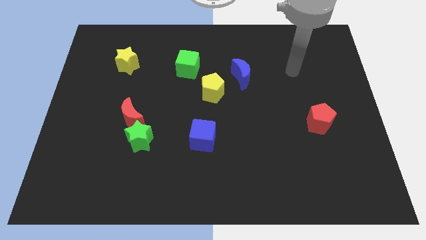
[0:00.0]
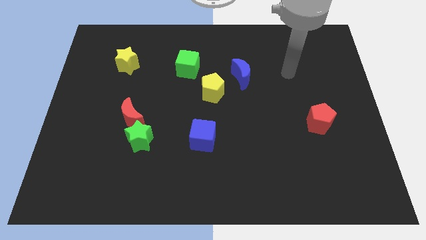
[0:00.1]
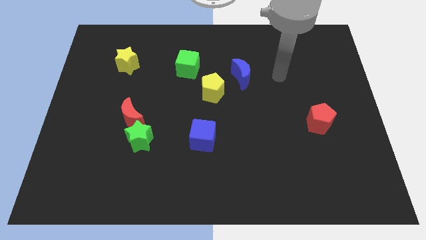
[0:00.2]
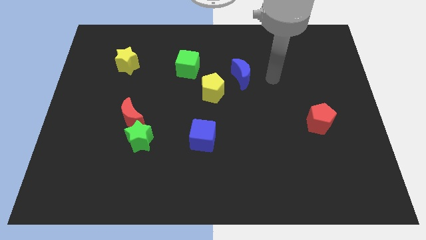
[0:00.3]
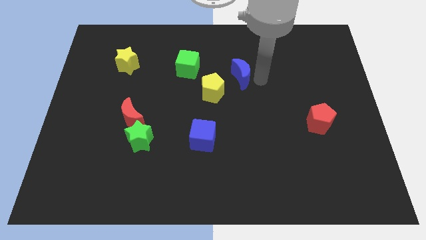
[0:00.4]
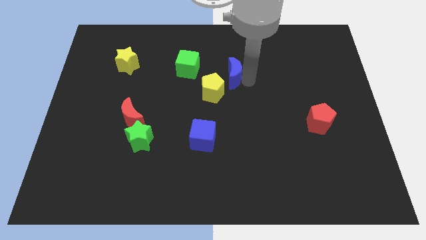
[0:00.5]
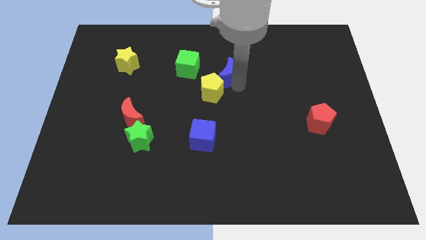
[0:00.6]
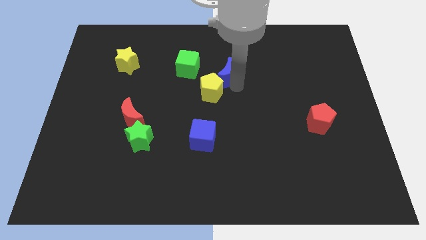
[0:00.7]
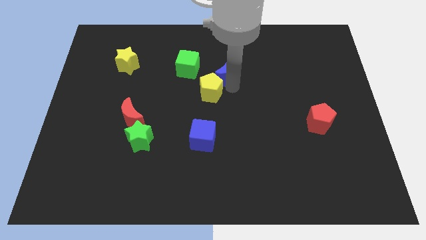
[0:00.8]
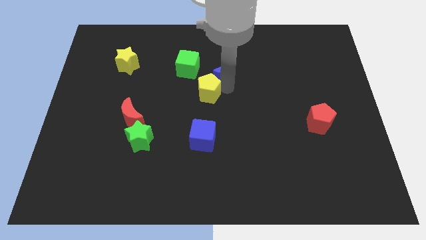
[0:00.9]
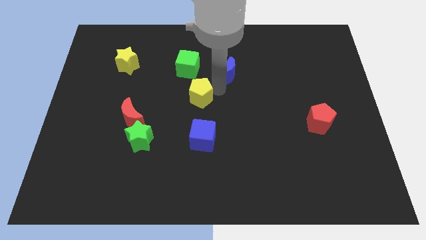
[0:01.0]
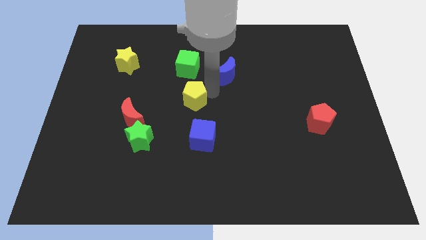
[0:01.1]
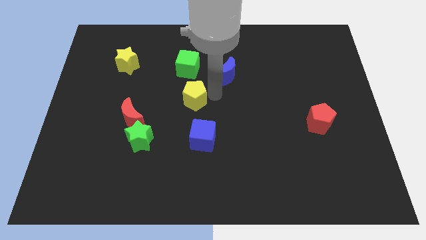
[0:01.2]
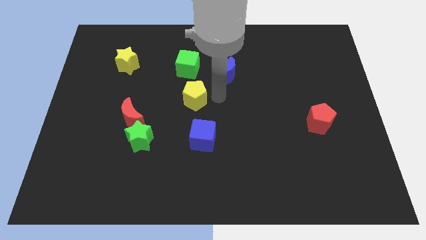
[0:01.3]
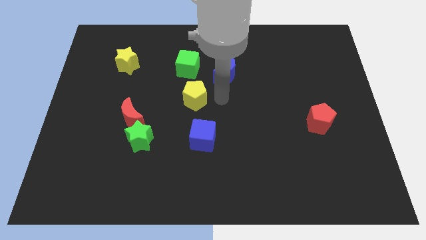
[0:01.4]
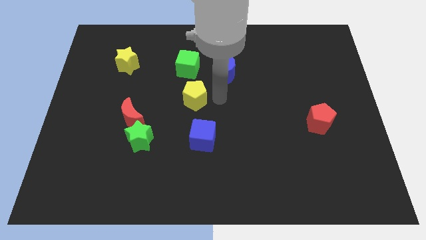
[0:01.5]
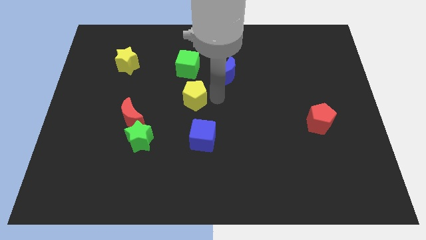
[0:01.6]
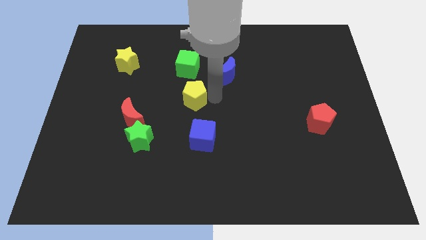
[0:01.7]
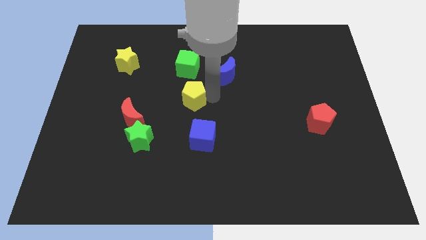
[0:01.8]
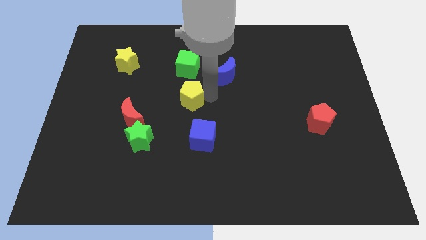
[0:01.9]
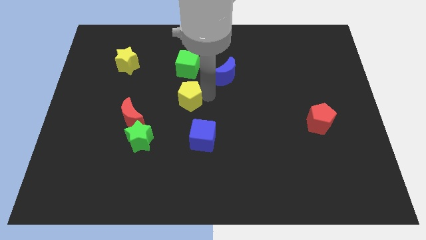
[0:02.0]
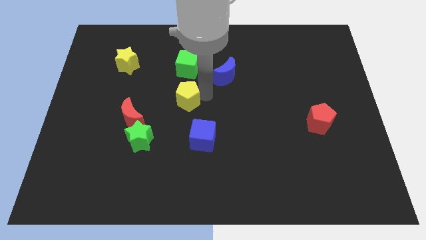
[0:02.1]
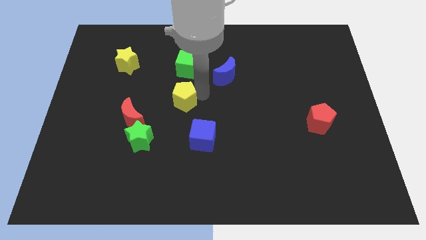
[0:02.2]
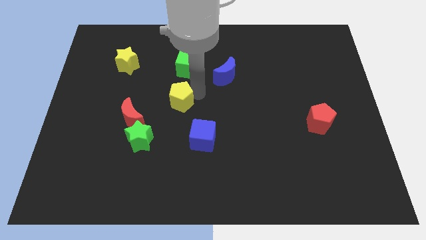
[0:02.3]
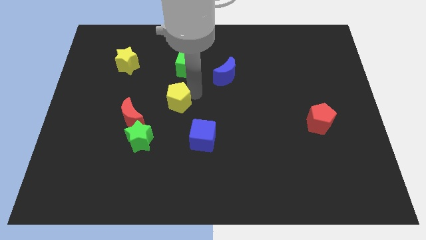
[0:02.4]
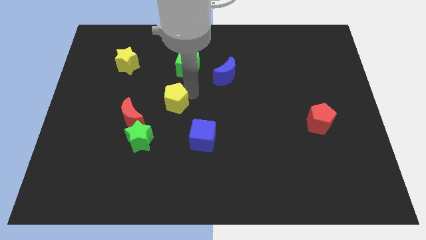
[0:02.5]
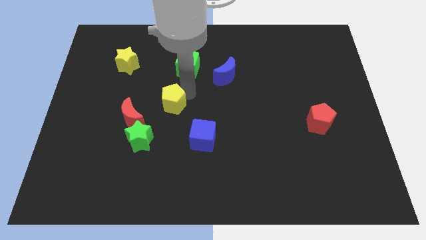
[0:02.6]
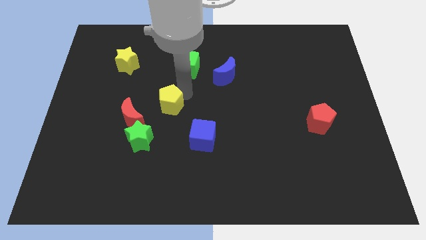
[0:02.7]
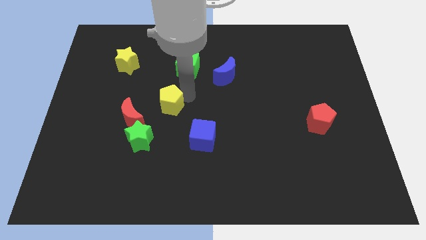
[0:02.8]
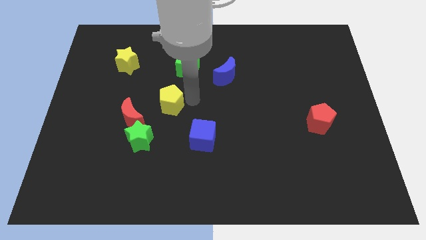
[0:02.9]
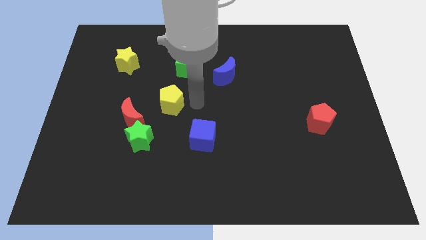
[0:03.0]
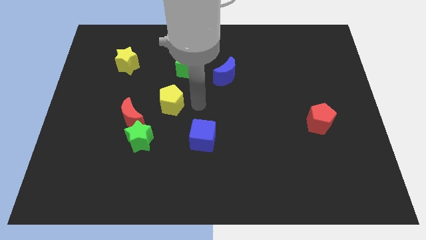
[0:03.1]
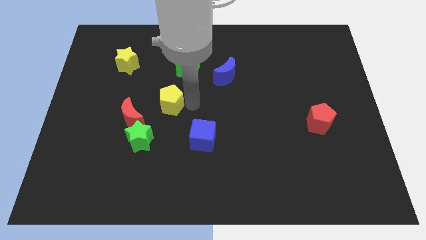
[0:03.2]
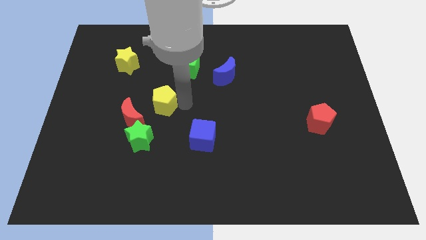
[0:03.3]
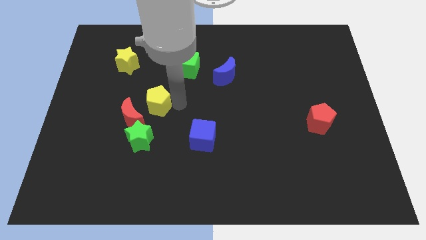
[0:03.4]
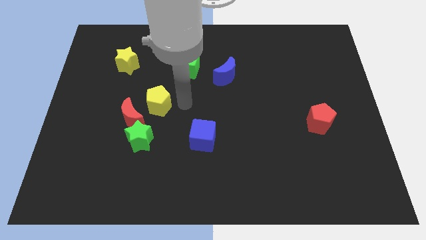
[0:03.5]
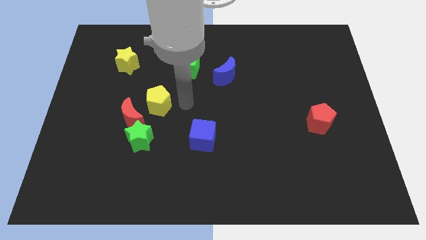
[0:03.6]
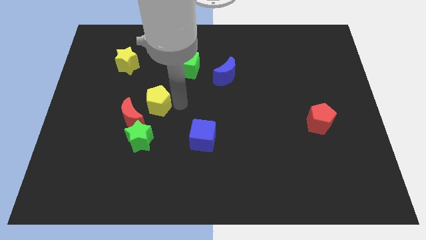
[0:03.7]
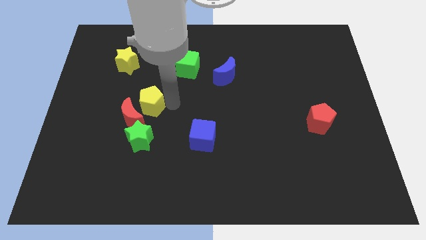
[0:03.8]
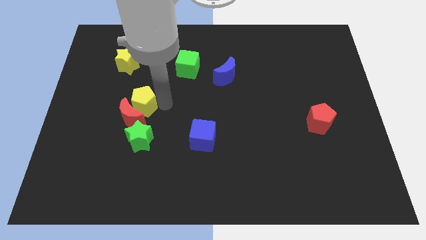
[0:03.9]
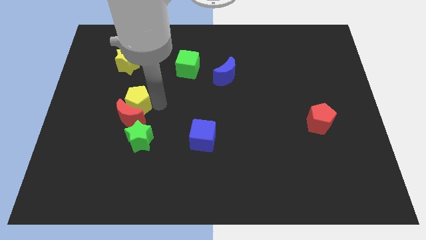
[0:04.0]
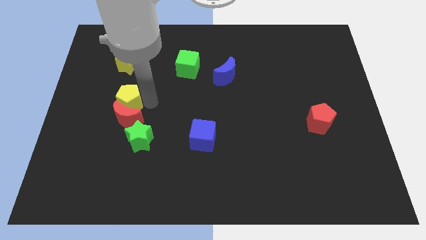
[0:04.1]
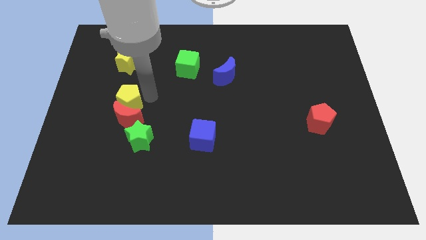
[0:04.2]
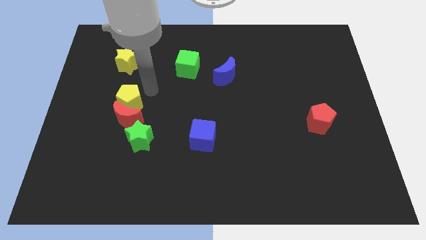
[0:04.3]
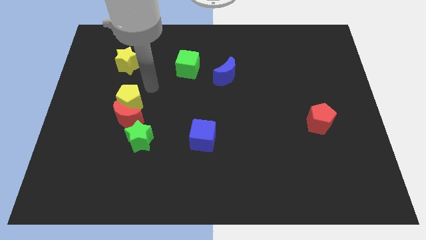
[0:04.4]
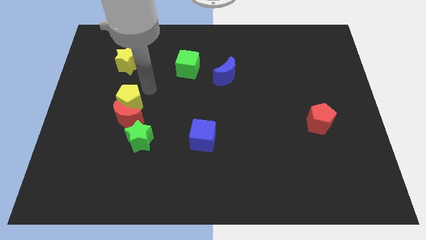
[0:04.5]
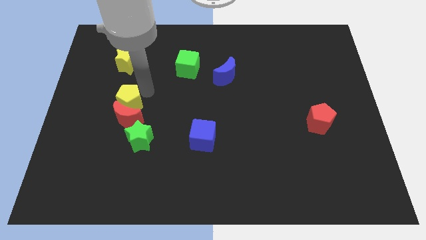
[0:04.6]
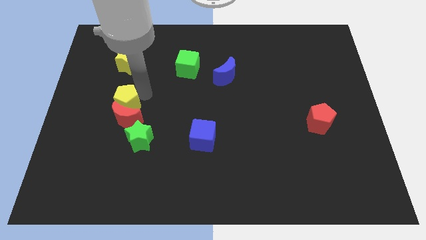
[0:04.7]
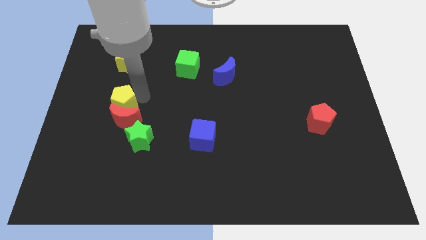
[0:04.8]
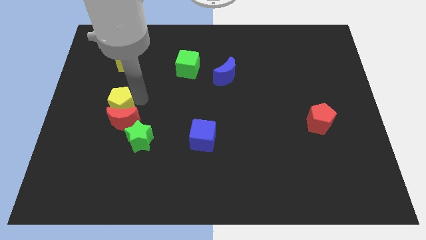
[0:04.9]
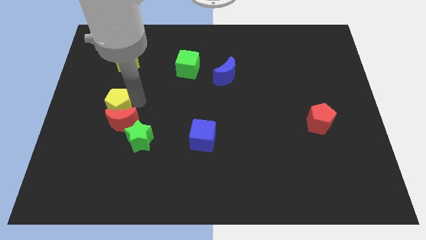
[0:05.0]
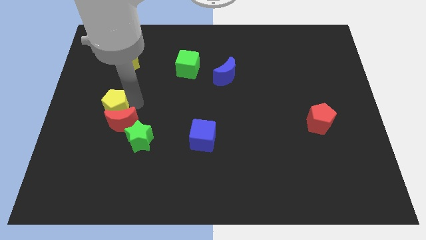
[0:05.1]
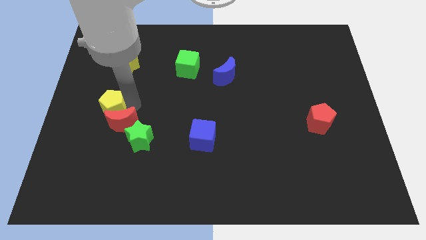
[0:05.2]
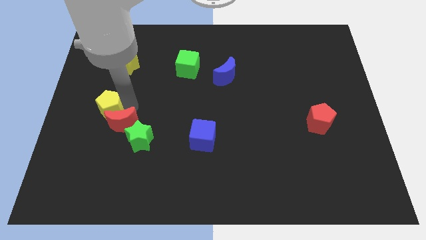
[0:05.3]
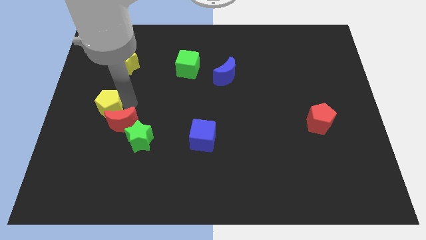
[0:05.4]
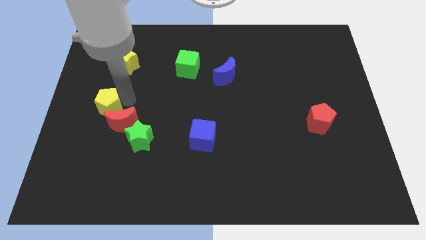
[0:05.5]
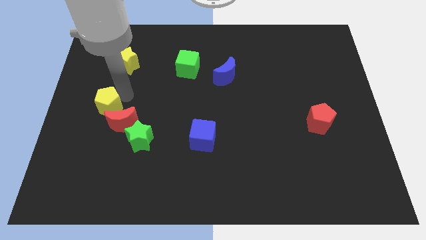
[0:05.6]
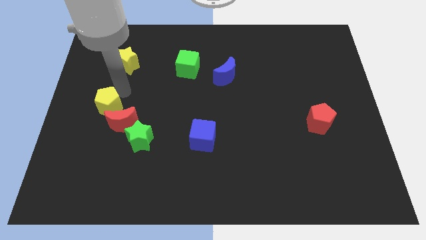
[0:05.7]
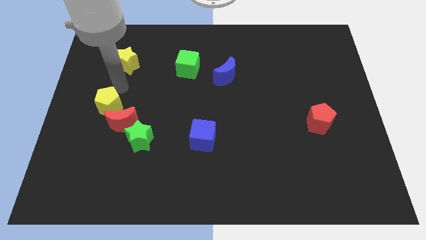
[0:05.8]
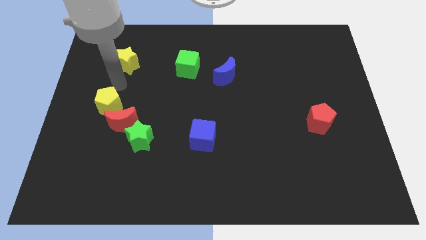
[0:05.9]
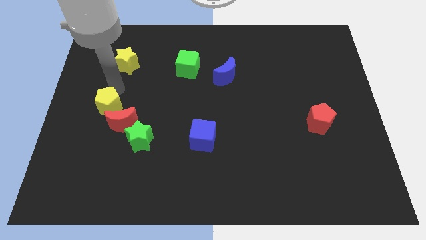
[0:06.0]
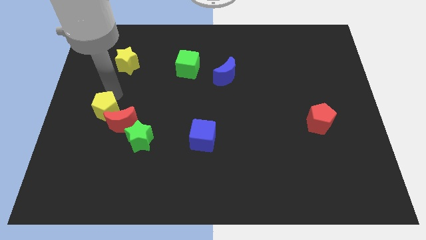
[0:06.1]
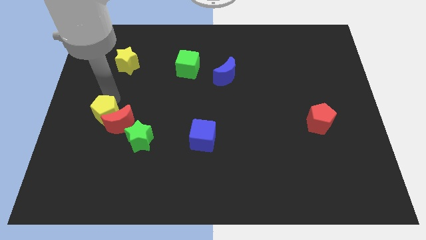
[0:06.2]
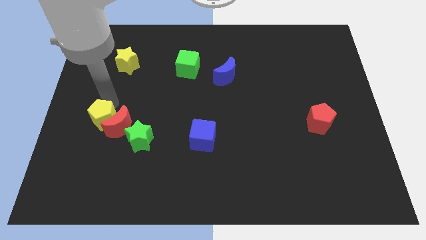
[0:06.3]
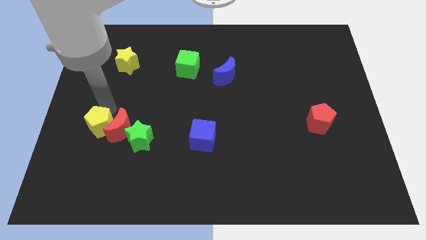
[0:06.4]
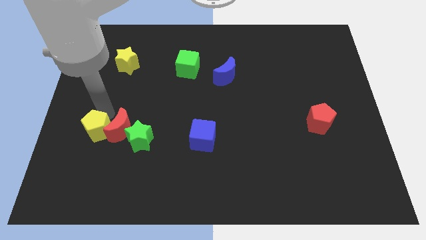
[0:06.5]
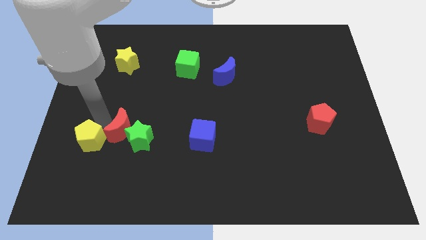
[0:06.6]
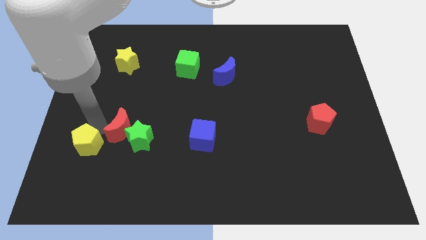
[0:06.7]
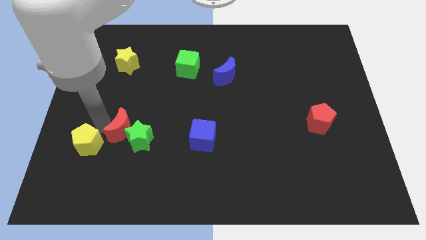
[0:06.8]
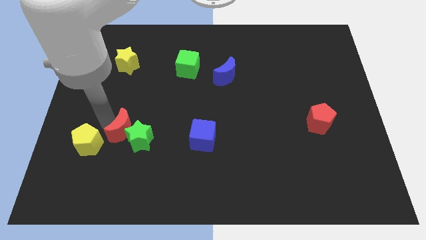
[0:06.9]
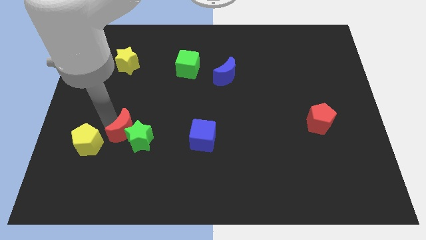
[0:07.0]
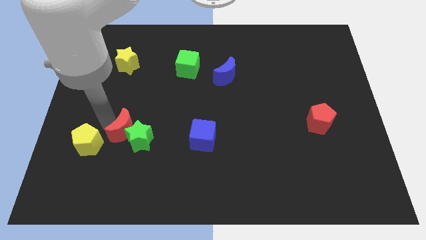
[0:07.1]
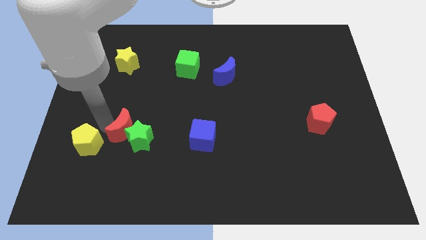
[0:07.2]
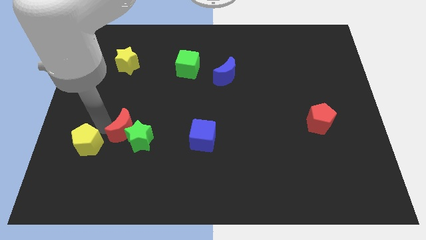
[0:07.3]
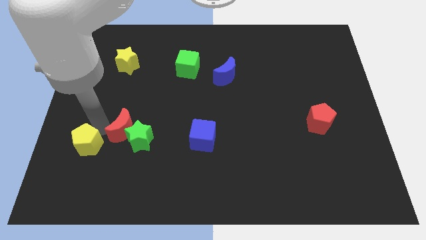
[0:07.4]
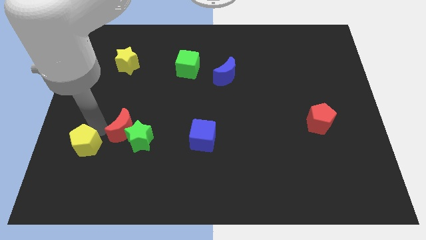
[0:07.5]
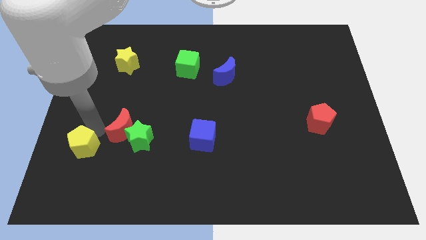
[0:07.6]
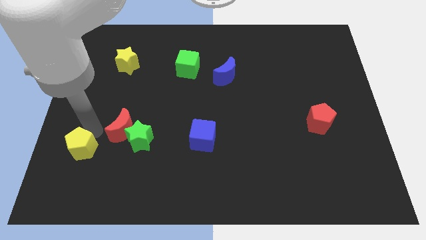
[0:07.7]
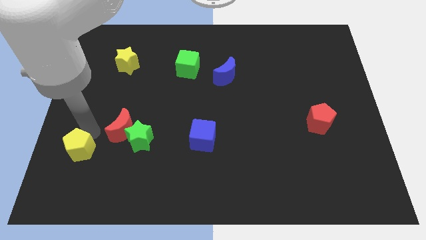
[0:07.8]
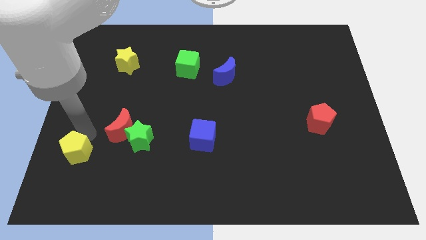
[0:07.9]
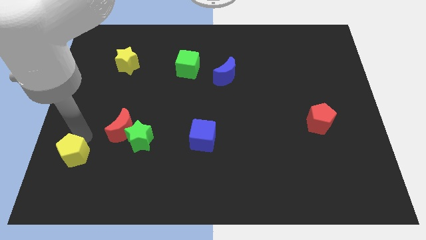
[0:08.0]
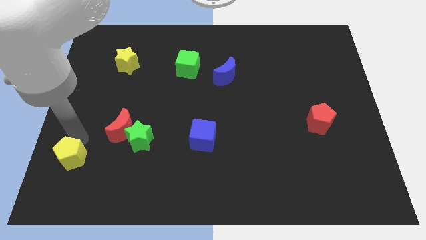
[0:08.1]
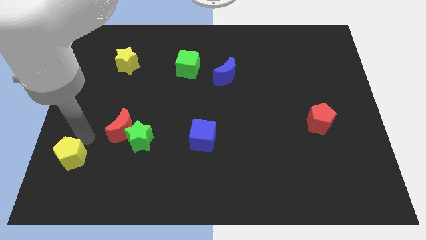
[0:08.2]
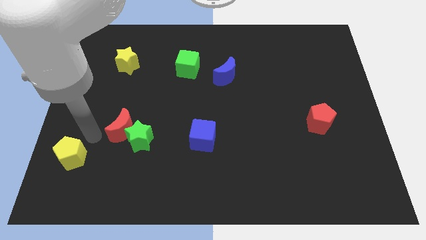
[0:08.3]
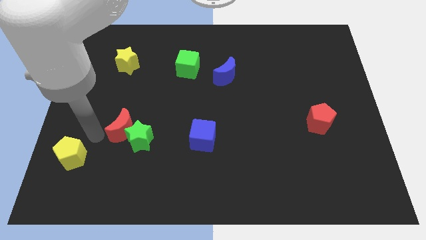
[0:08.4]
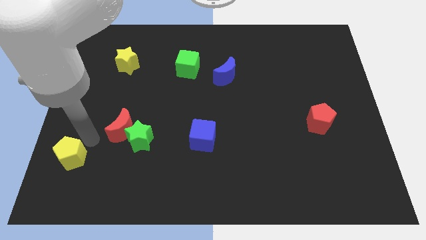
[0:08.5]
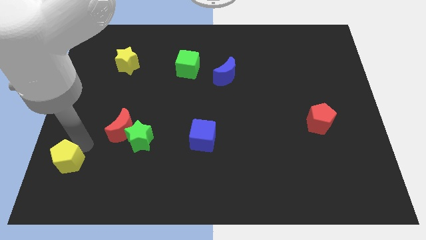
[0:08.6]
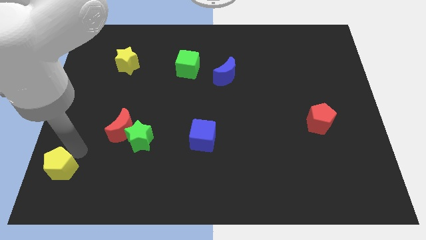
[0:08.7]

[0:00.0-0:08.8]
push the yellow pentagon to the lower left corner
